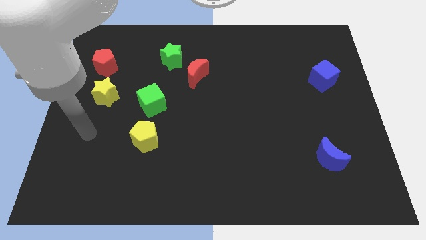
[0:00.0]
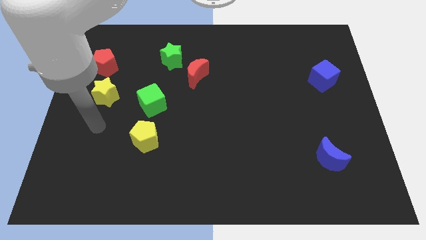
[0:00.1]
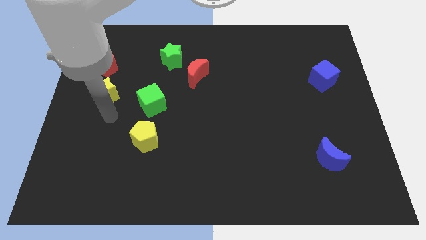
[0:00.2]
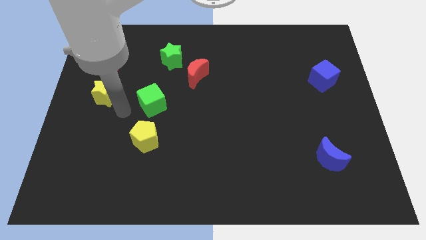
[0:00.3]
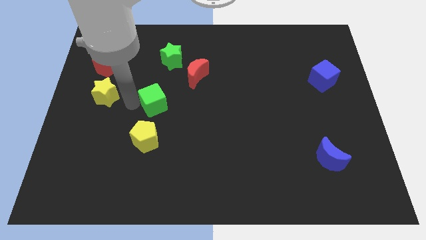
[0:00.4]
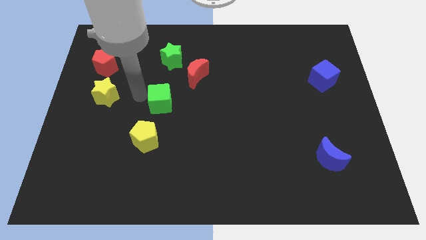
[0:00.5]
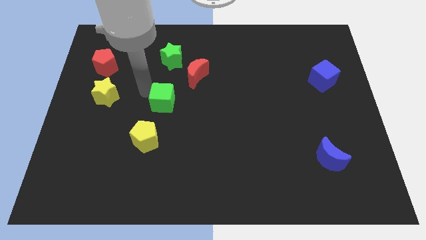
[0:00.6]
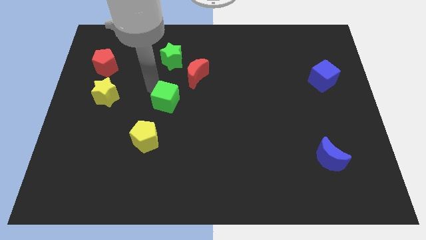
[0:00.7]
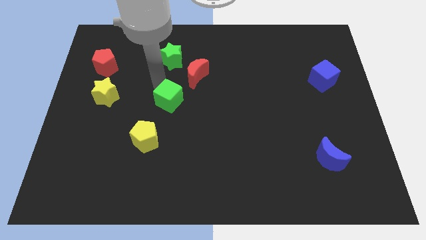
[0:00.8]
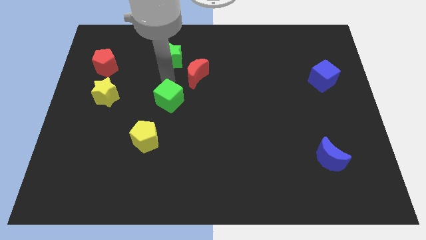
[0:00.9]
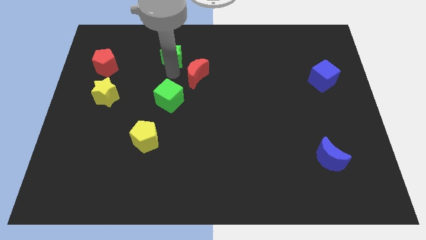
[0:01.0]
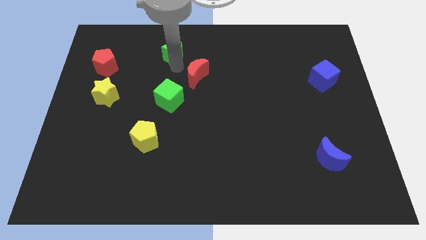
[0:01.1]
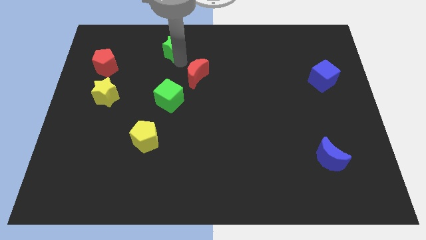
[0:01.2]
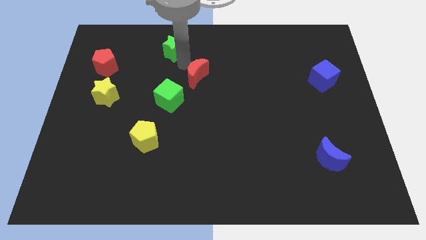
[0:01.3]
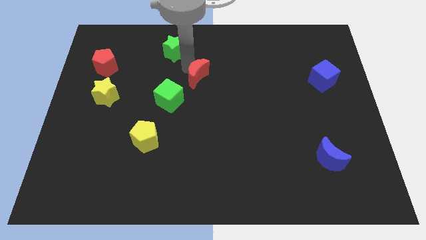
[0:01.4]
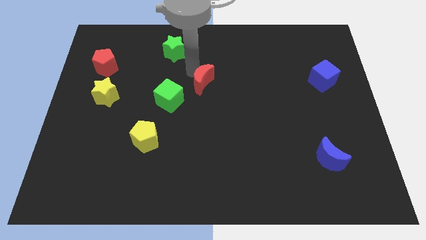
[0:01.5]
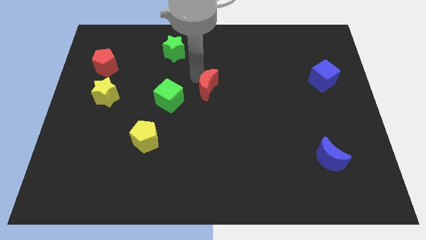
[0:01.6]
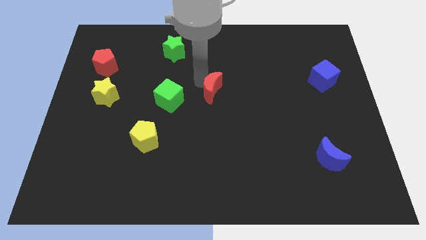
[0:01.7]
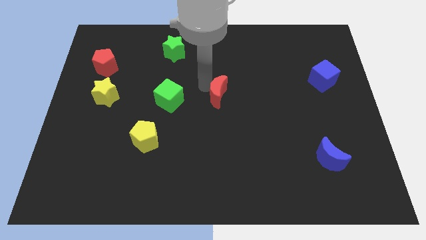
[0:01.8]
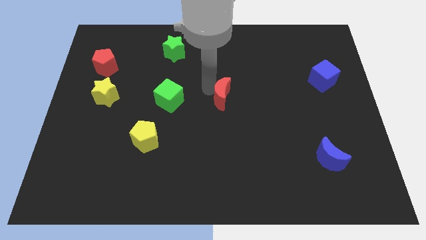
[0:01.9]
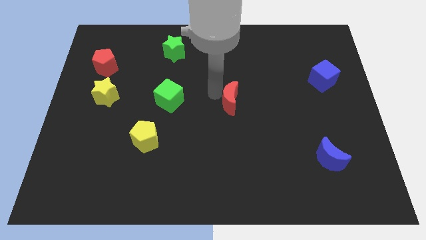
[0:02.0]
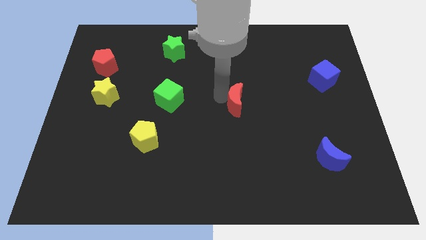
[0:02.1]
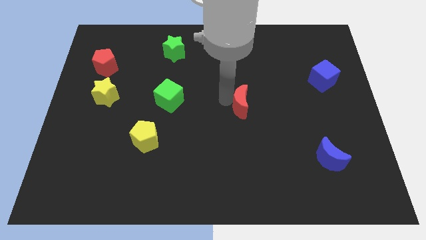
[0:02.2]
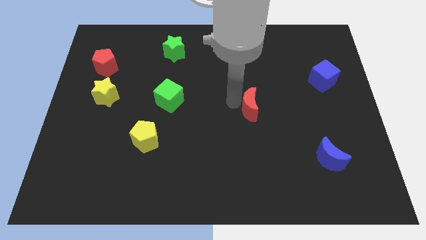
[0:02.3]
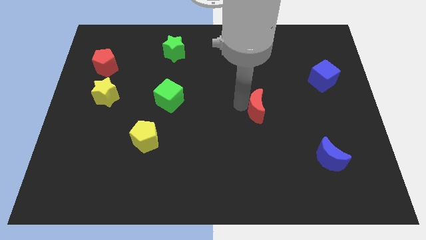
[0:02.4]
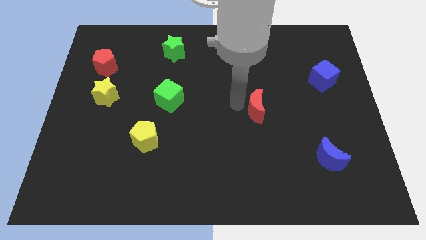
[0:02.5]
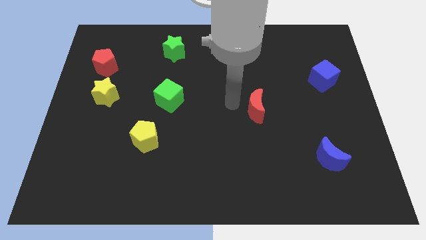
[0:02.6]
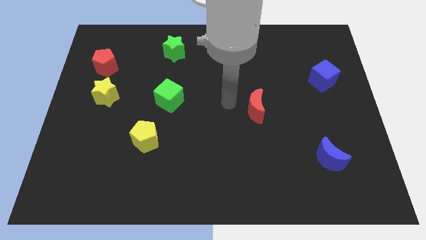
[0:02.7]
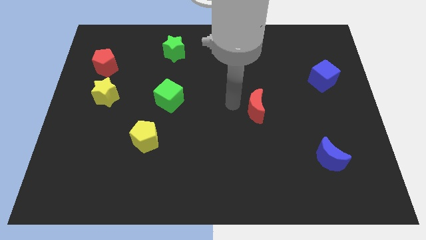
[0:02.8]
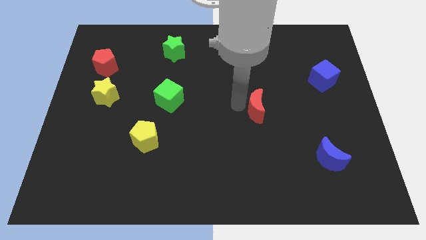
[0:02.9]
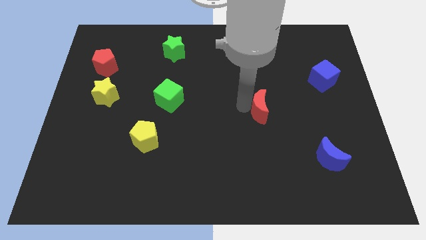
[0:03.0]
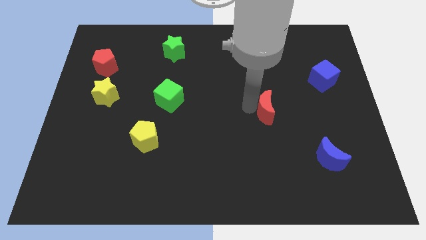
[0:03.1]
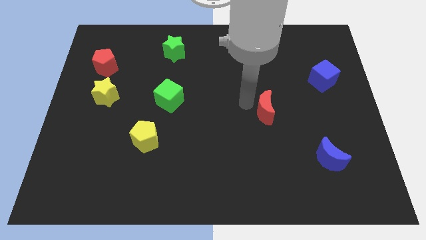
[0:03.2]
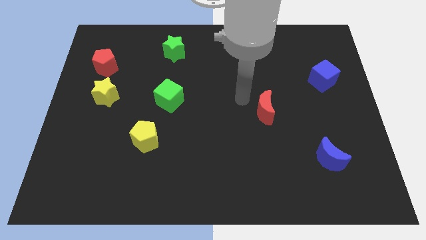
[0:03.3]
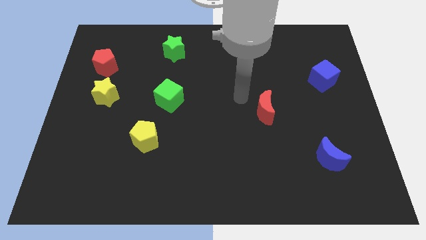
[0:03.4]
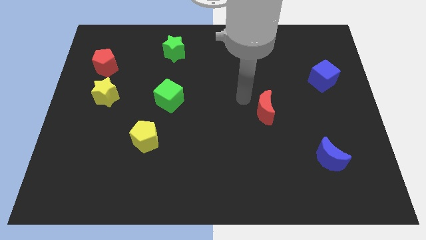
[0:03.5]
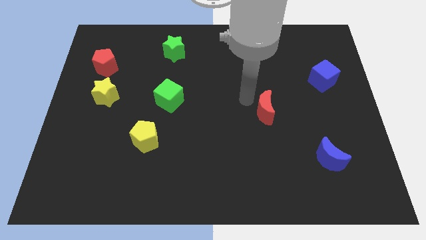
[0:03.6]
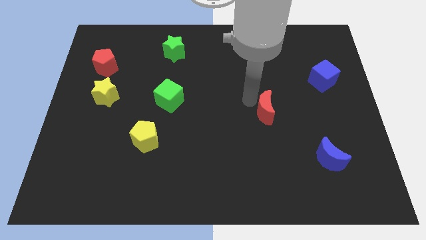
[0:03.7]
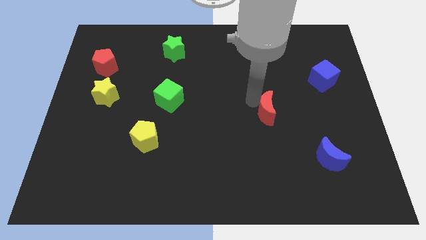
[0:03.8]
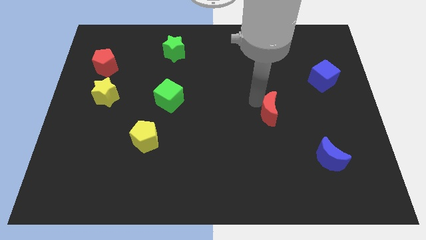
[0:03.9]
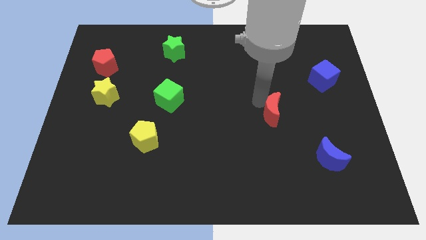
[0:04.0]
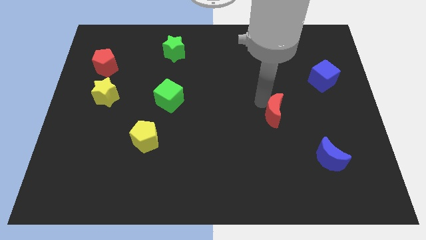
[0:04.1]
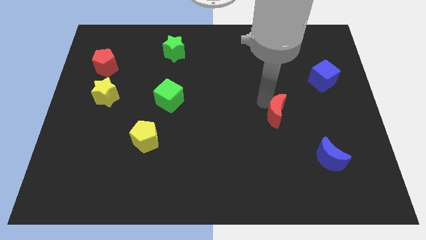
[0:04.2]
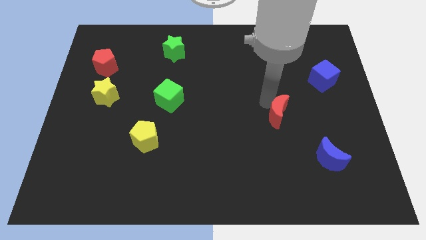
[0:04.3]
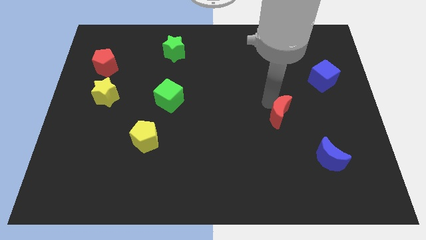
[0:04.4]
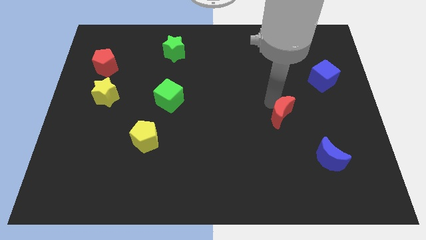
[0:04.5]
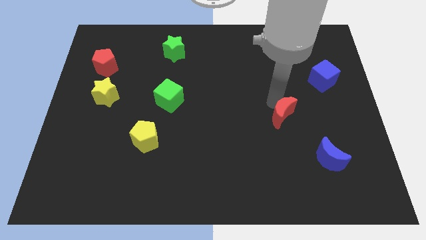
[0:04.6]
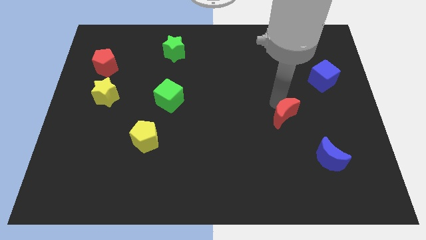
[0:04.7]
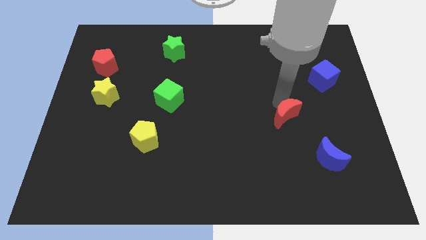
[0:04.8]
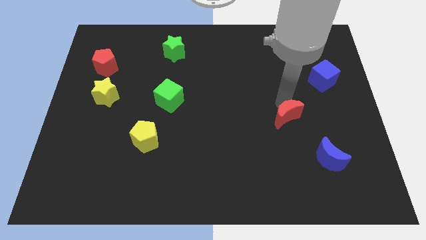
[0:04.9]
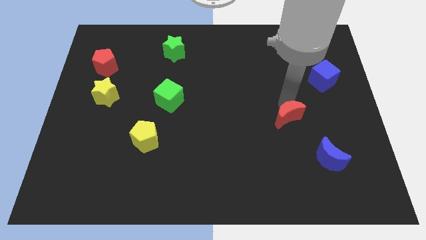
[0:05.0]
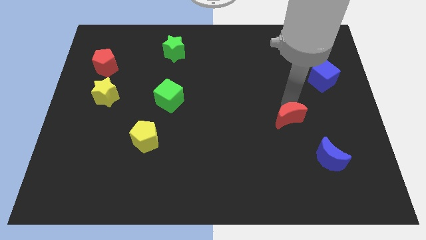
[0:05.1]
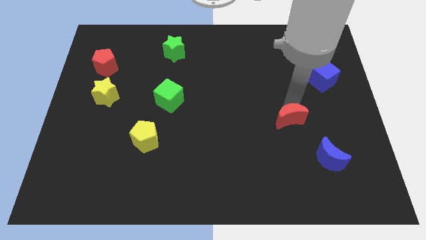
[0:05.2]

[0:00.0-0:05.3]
push the red moon to the top left of the blue moon

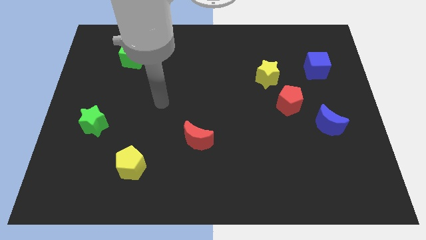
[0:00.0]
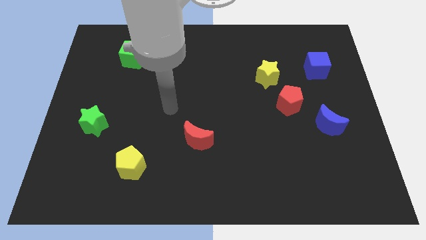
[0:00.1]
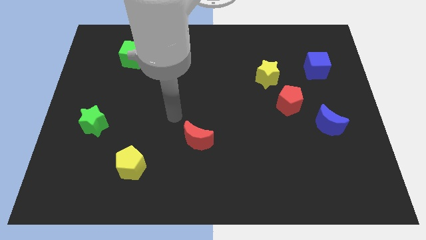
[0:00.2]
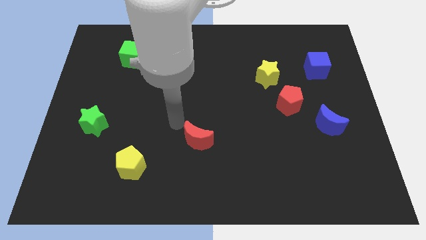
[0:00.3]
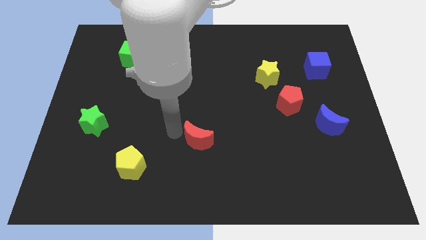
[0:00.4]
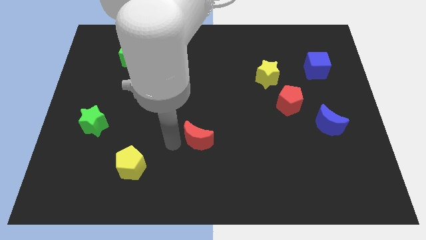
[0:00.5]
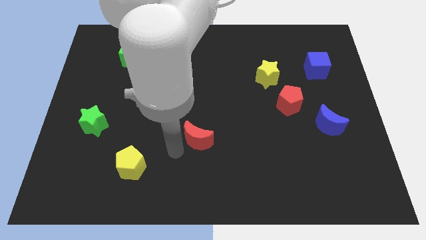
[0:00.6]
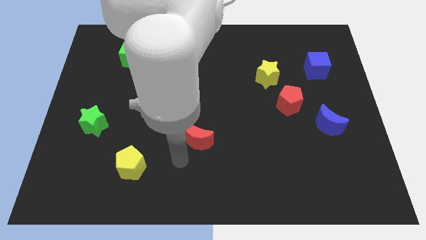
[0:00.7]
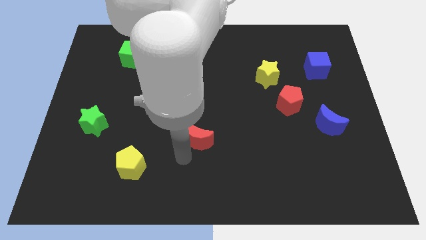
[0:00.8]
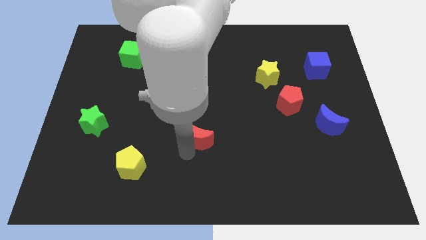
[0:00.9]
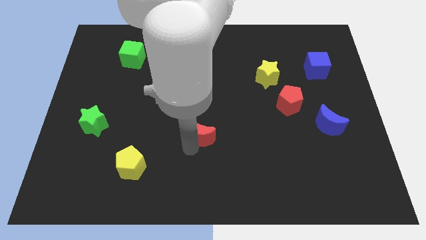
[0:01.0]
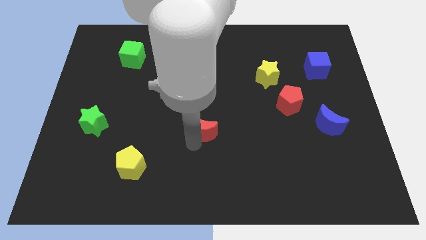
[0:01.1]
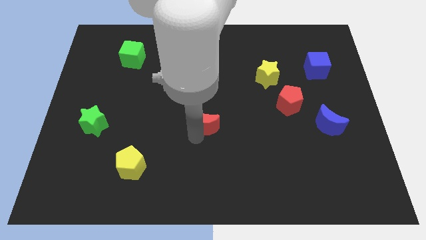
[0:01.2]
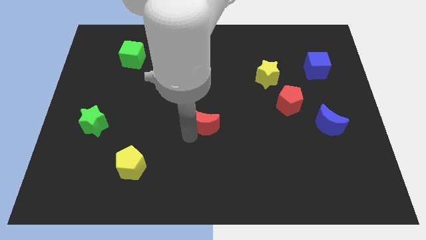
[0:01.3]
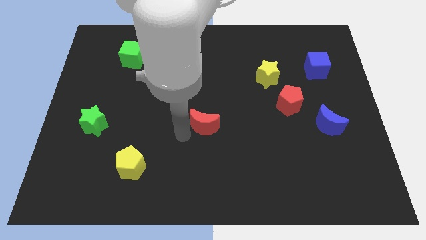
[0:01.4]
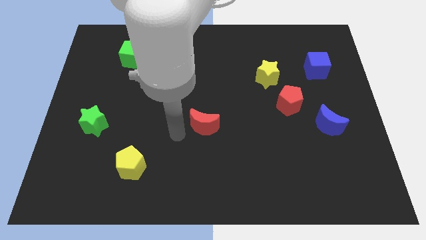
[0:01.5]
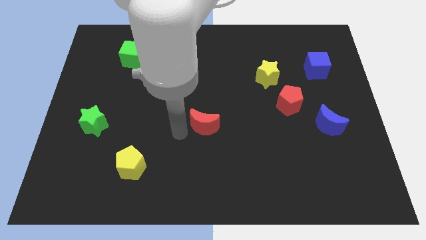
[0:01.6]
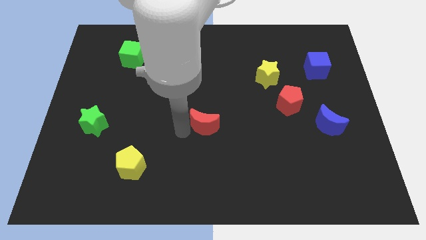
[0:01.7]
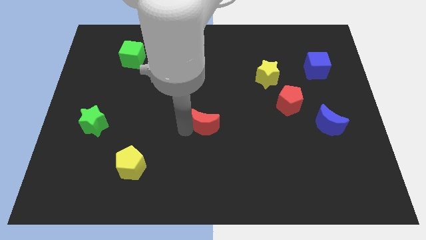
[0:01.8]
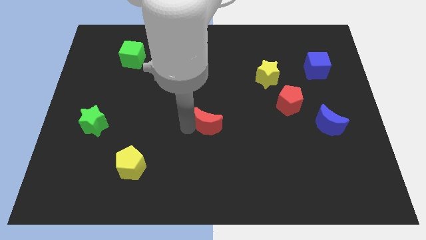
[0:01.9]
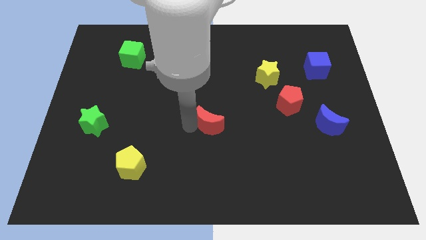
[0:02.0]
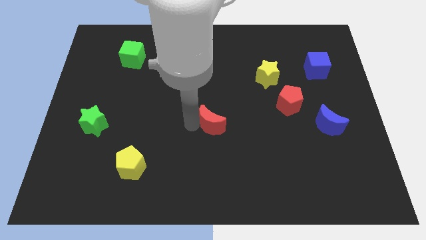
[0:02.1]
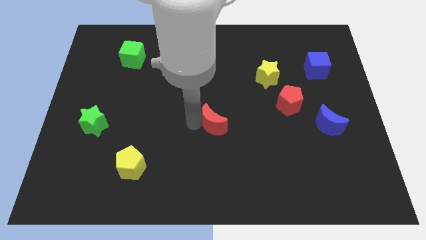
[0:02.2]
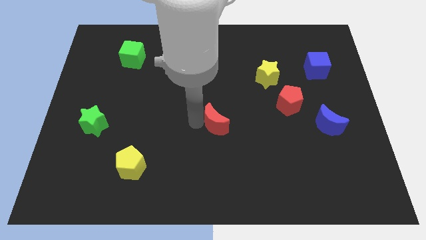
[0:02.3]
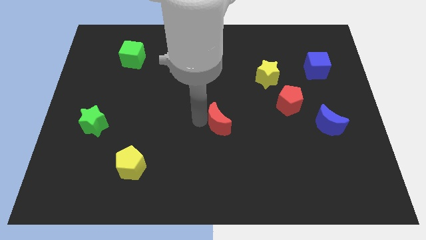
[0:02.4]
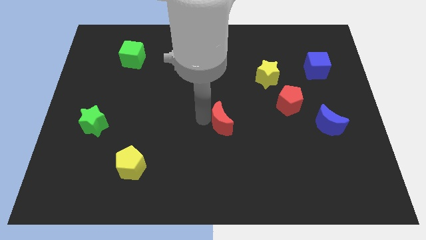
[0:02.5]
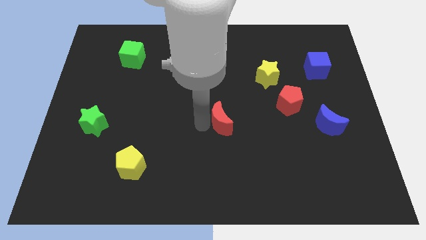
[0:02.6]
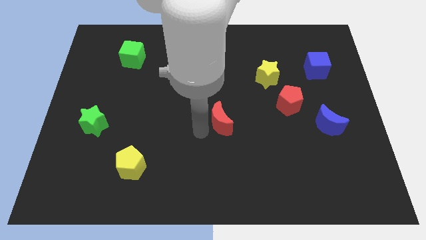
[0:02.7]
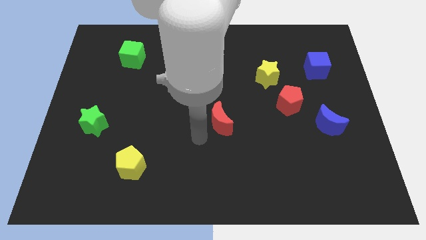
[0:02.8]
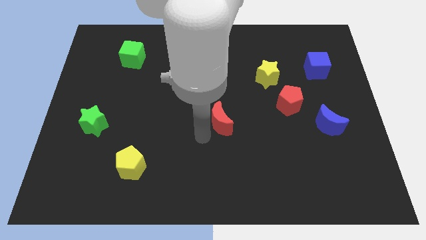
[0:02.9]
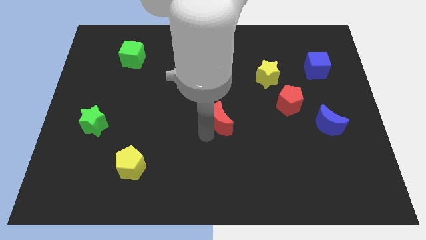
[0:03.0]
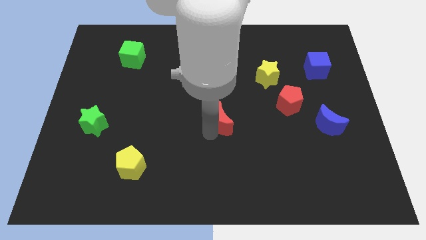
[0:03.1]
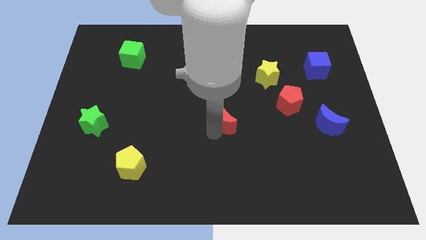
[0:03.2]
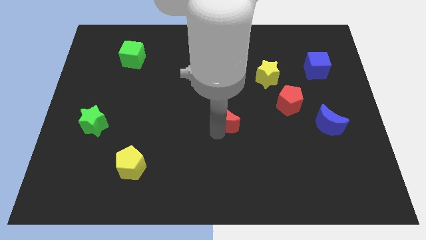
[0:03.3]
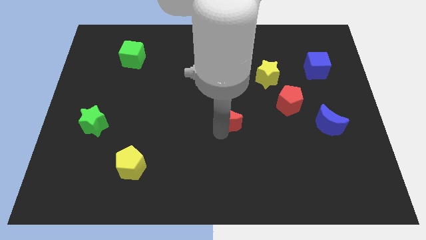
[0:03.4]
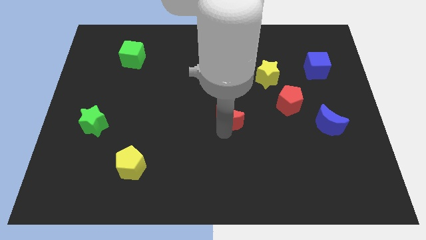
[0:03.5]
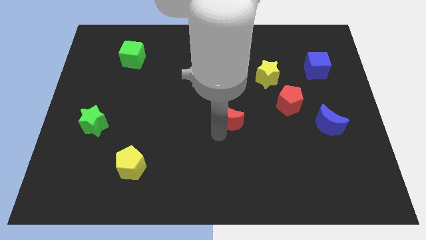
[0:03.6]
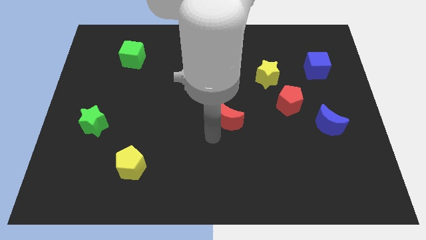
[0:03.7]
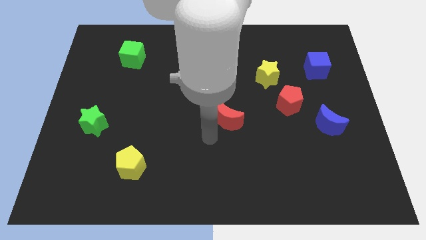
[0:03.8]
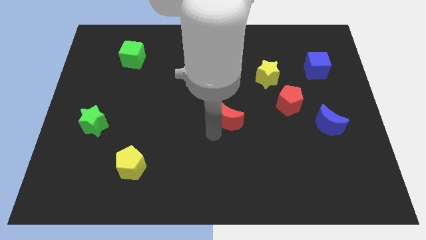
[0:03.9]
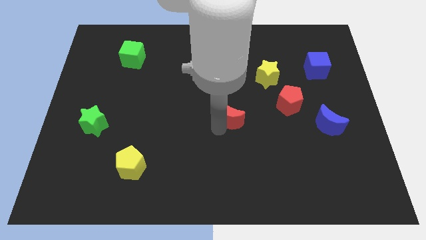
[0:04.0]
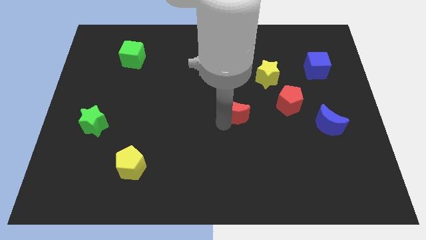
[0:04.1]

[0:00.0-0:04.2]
put the red moon to the left side of the red pentagon
